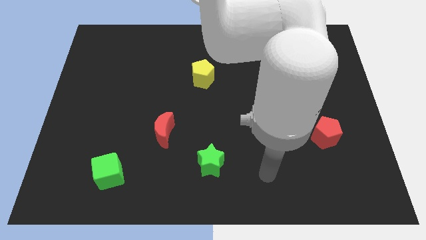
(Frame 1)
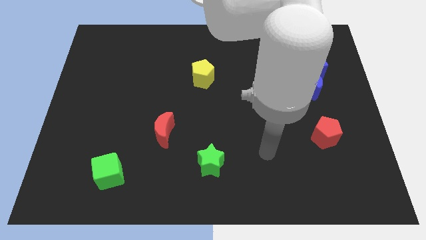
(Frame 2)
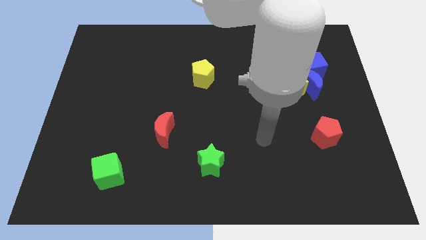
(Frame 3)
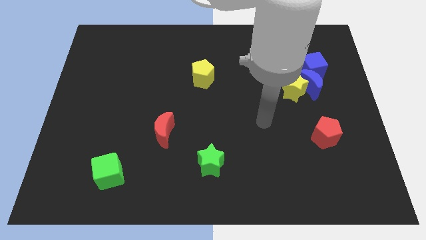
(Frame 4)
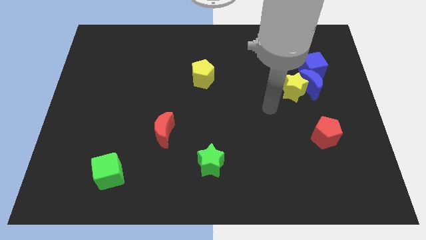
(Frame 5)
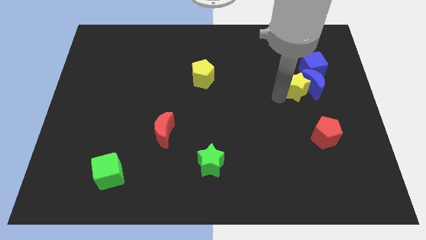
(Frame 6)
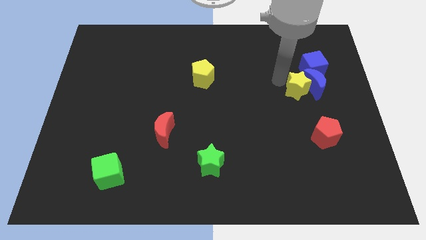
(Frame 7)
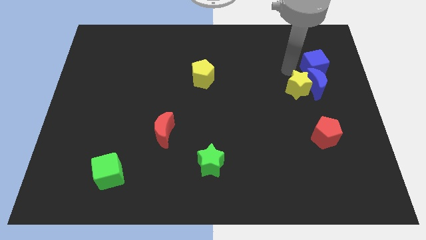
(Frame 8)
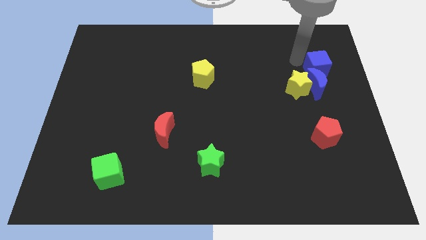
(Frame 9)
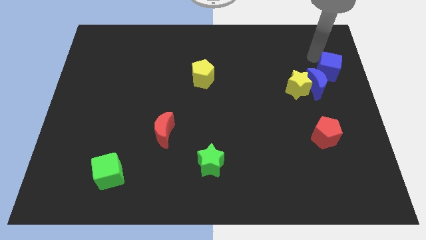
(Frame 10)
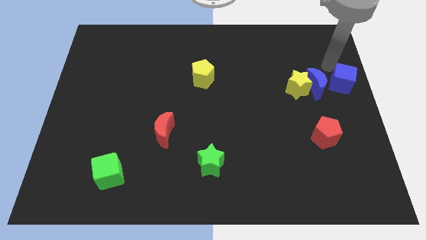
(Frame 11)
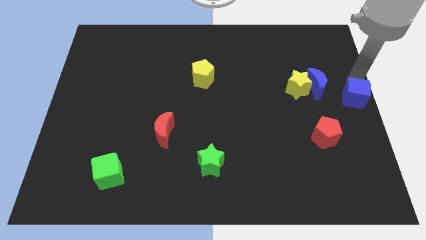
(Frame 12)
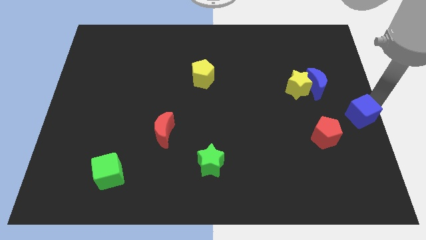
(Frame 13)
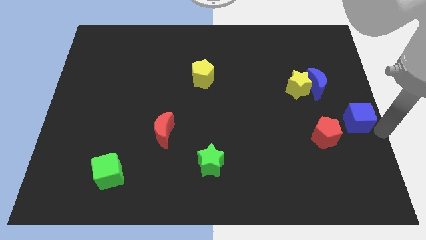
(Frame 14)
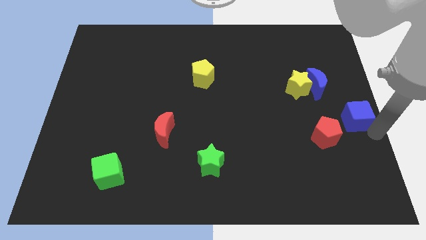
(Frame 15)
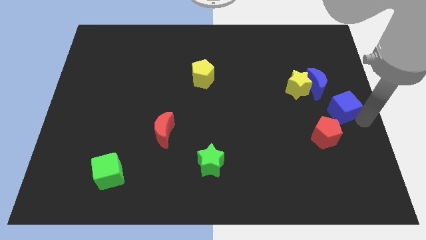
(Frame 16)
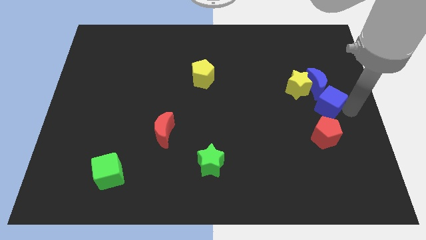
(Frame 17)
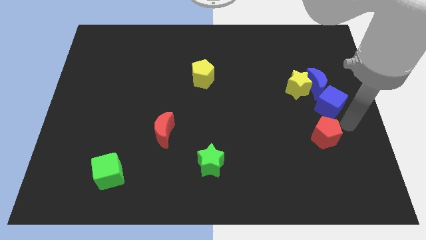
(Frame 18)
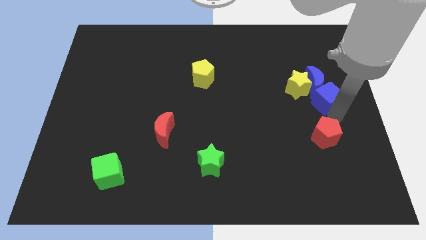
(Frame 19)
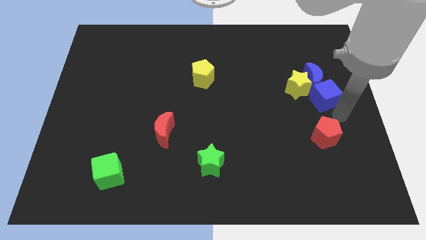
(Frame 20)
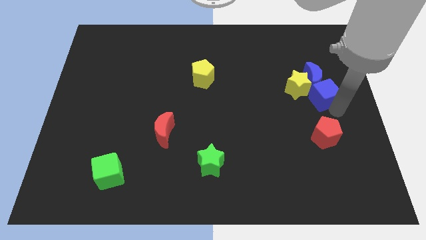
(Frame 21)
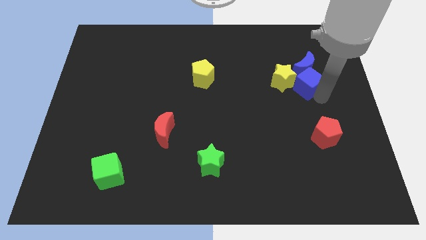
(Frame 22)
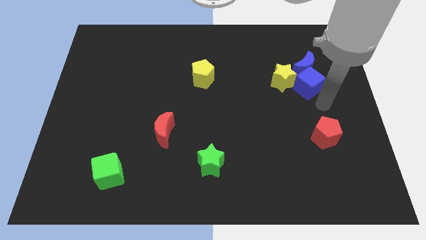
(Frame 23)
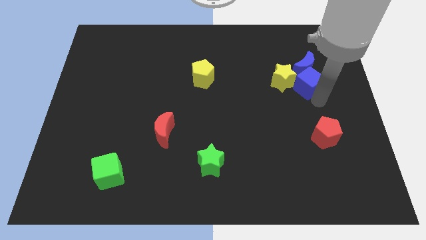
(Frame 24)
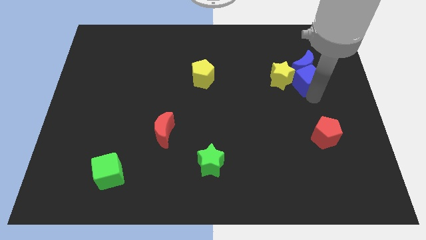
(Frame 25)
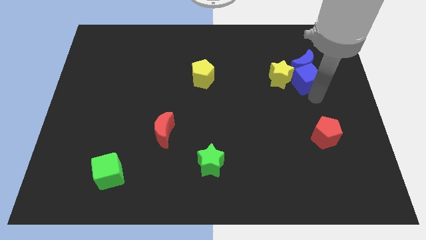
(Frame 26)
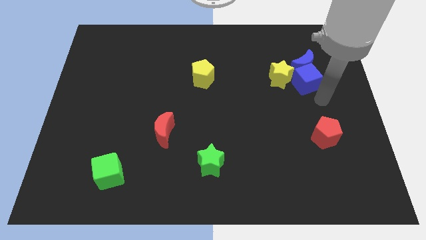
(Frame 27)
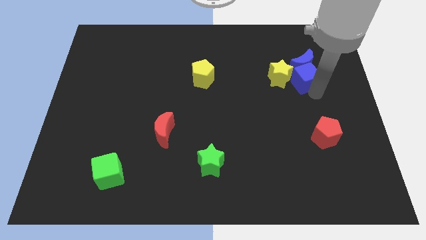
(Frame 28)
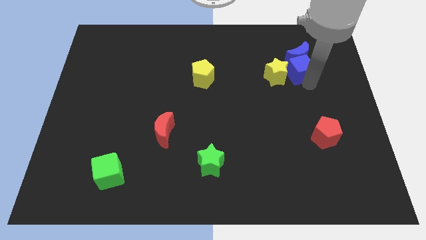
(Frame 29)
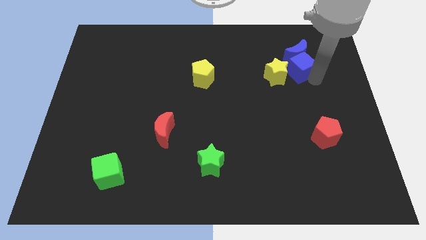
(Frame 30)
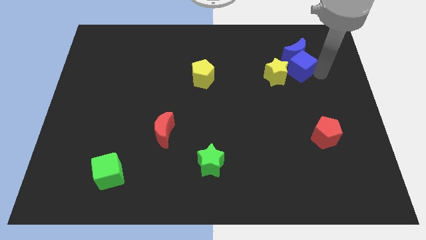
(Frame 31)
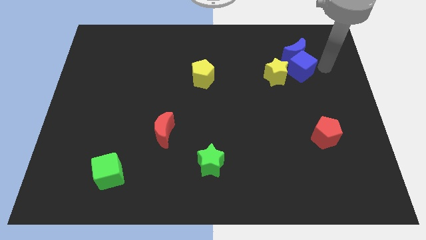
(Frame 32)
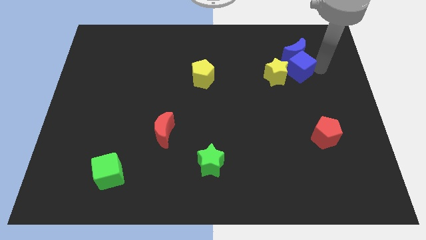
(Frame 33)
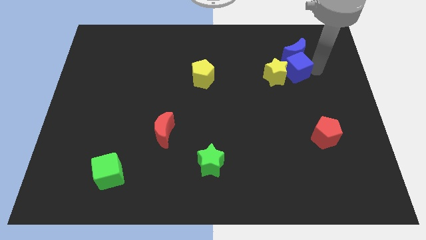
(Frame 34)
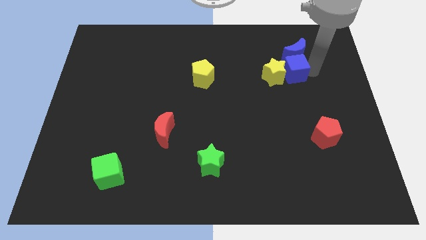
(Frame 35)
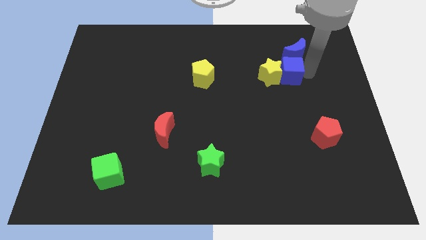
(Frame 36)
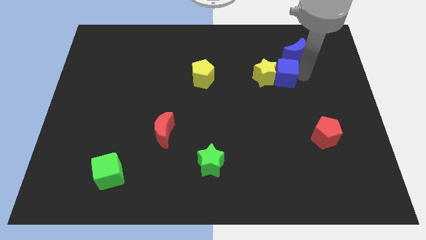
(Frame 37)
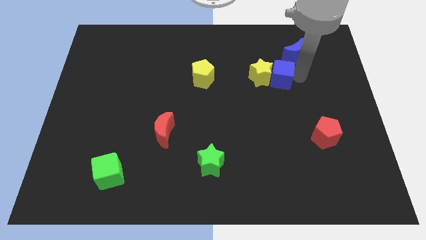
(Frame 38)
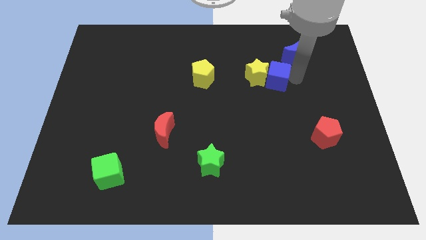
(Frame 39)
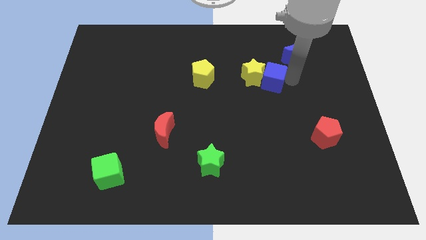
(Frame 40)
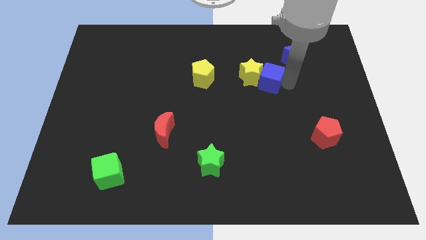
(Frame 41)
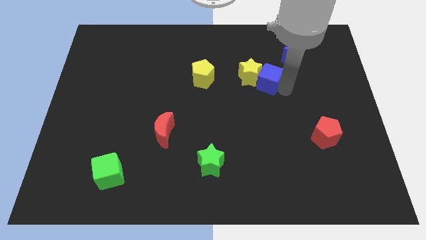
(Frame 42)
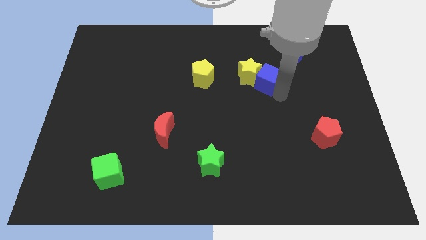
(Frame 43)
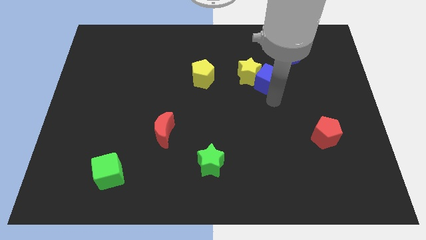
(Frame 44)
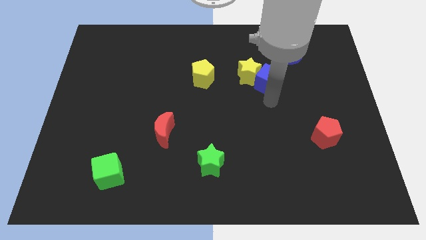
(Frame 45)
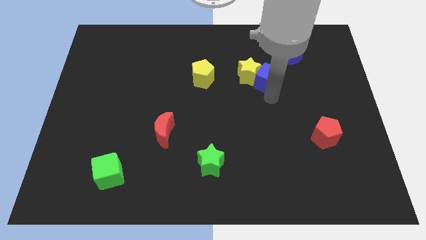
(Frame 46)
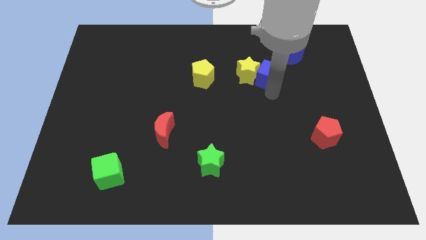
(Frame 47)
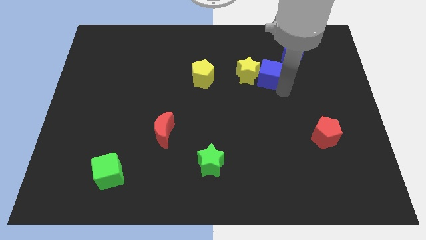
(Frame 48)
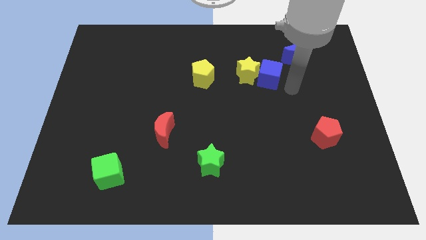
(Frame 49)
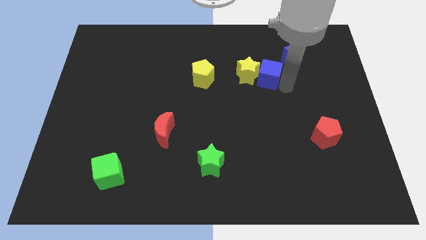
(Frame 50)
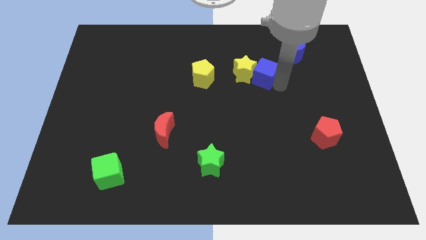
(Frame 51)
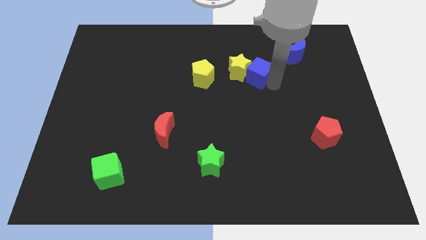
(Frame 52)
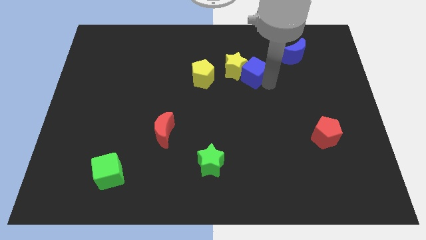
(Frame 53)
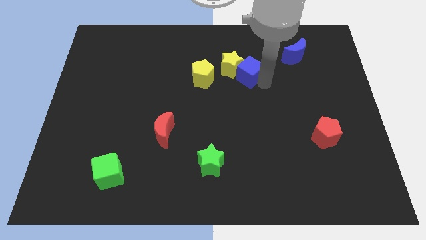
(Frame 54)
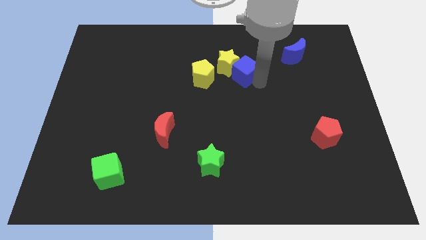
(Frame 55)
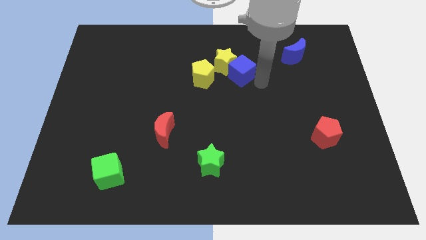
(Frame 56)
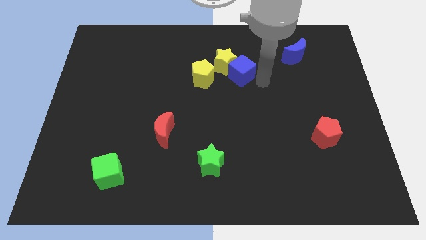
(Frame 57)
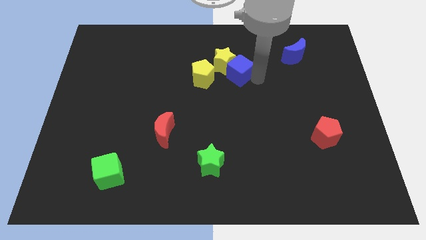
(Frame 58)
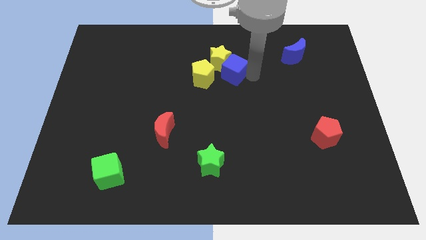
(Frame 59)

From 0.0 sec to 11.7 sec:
slide the blue cube left

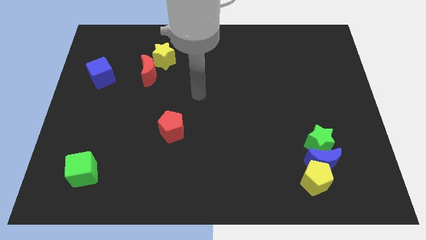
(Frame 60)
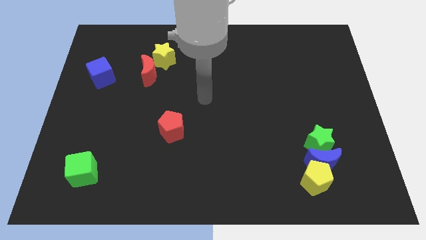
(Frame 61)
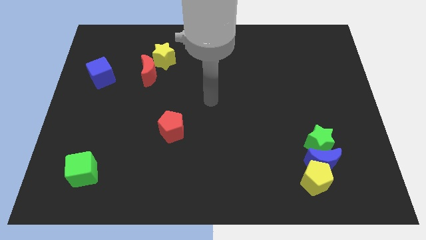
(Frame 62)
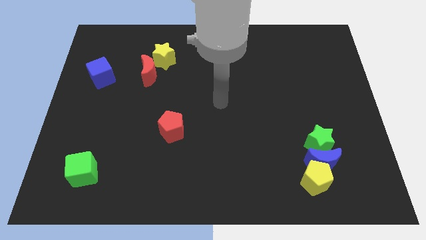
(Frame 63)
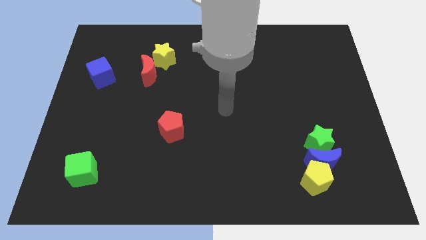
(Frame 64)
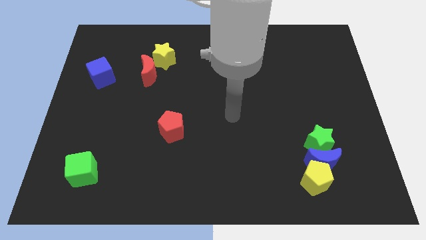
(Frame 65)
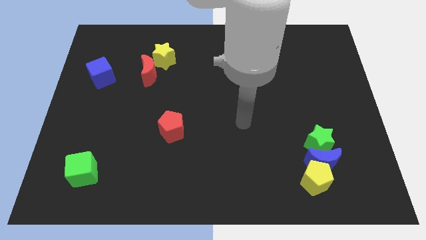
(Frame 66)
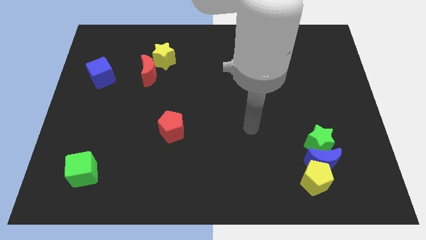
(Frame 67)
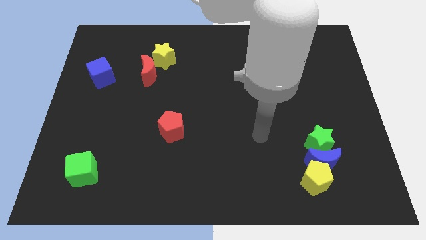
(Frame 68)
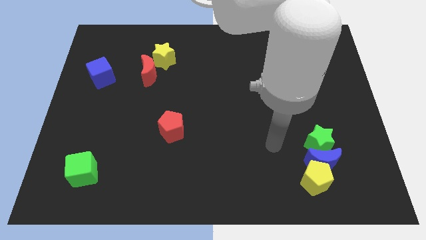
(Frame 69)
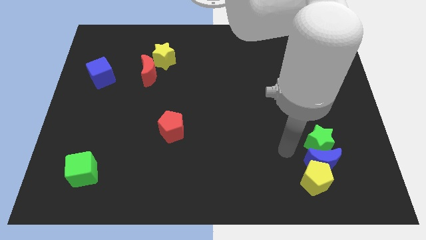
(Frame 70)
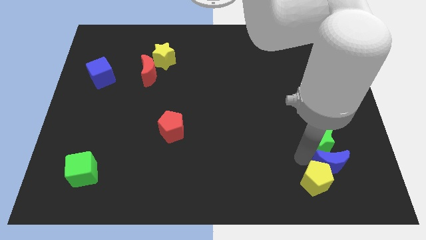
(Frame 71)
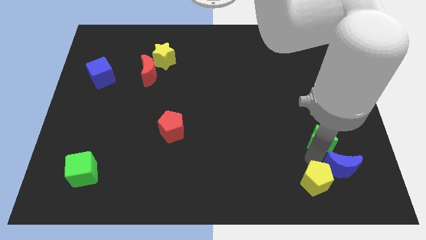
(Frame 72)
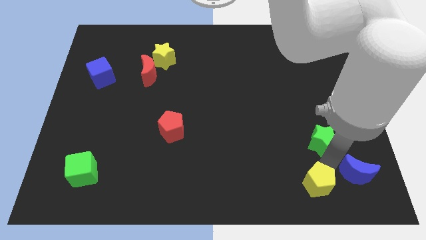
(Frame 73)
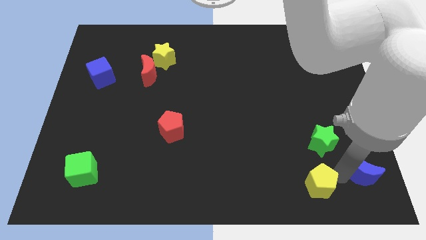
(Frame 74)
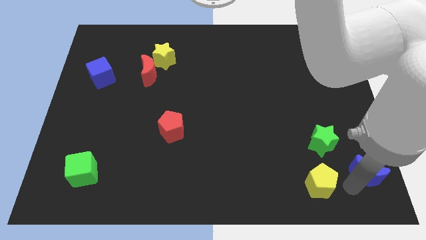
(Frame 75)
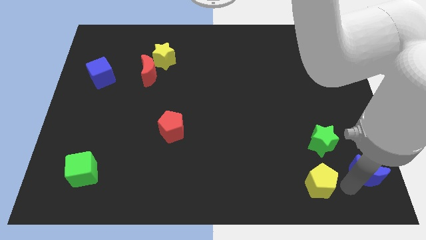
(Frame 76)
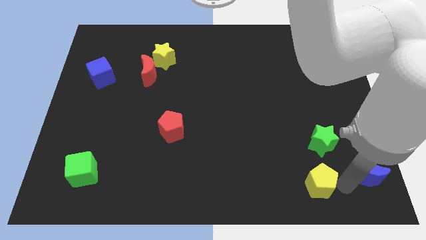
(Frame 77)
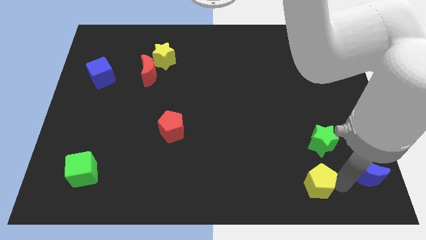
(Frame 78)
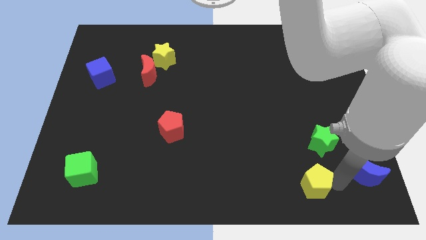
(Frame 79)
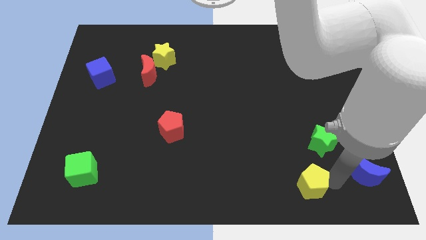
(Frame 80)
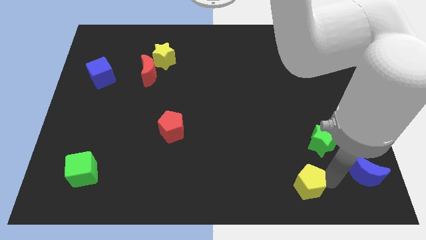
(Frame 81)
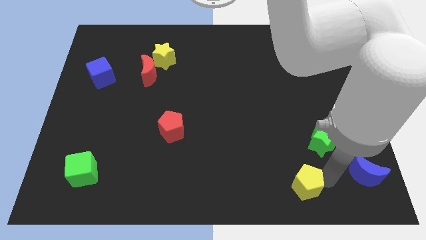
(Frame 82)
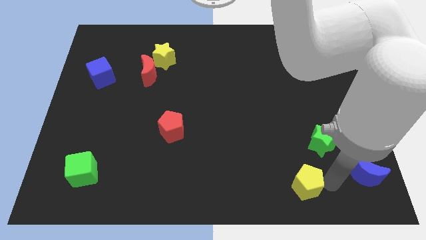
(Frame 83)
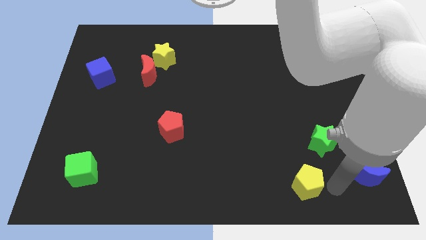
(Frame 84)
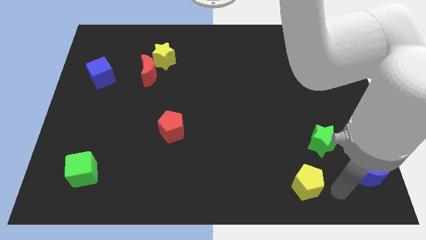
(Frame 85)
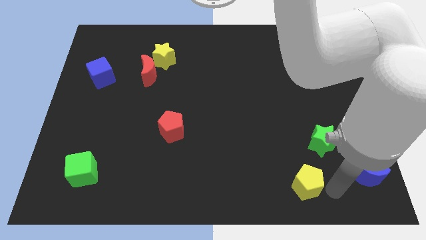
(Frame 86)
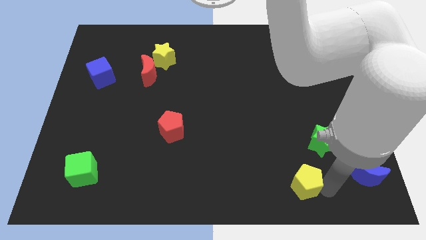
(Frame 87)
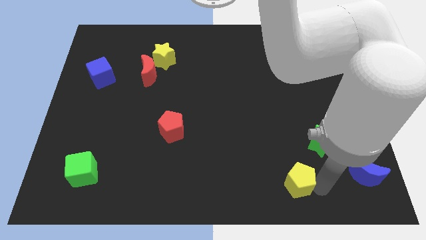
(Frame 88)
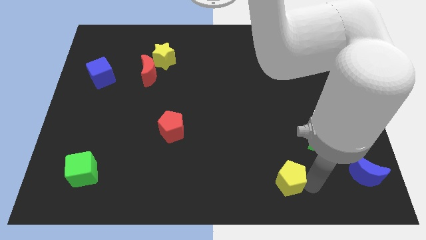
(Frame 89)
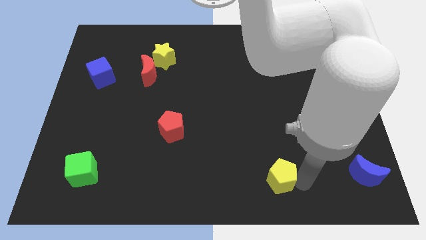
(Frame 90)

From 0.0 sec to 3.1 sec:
push the yellow pentagon a bit to the left
